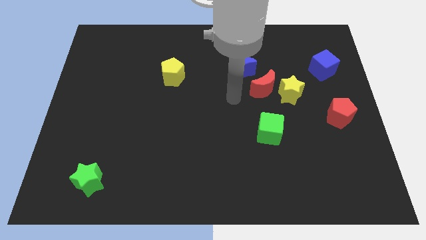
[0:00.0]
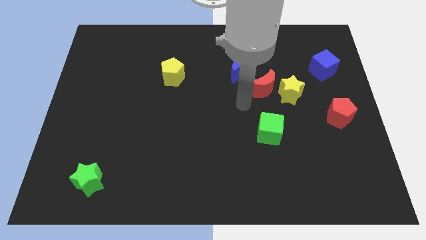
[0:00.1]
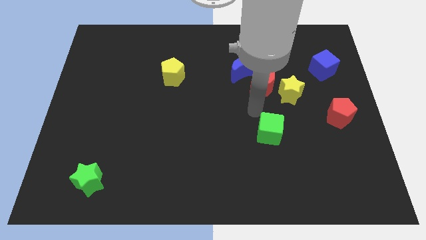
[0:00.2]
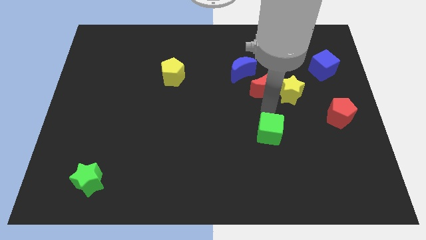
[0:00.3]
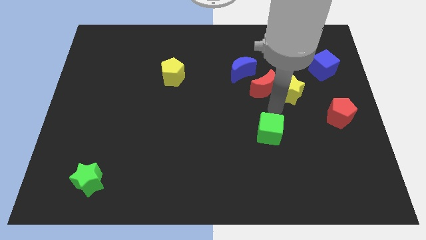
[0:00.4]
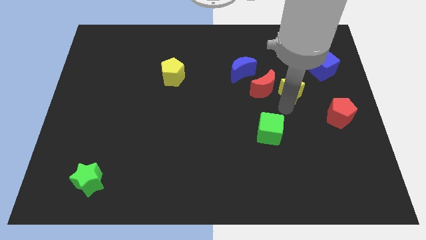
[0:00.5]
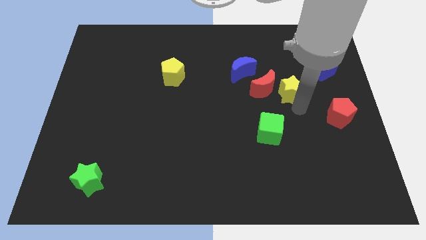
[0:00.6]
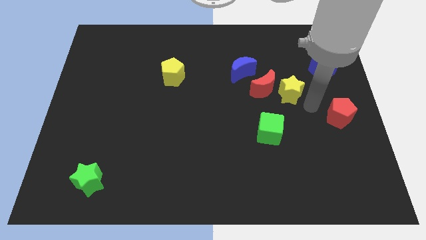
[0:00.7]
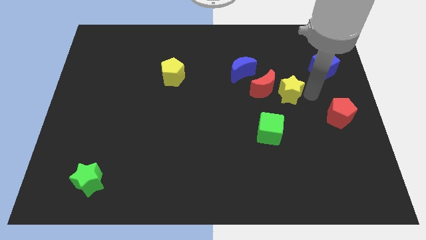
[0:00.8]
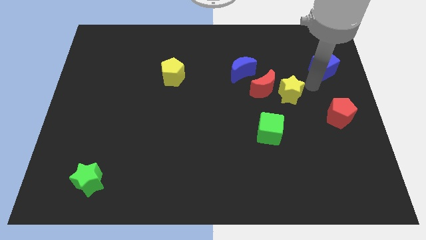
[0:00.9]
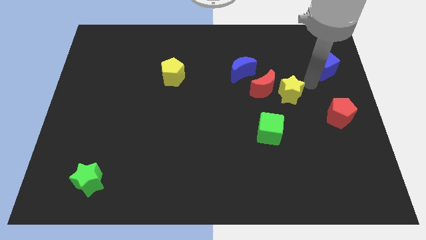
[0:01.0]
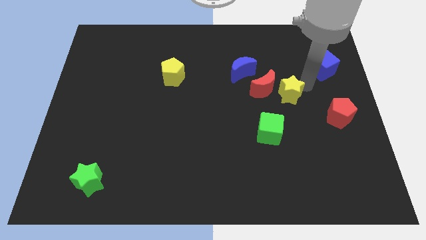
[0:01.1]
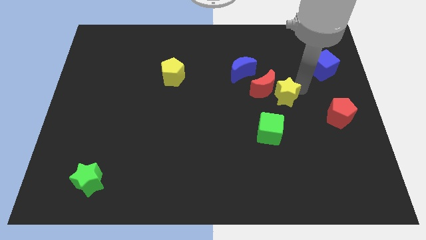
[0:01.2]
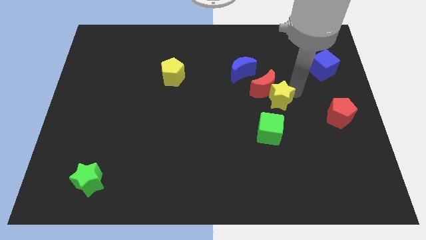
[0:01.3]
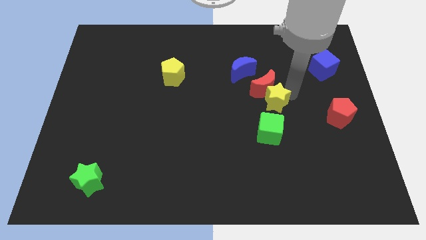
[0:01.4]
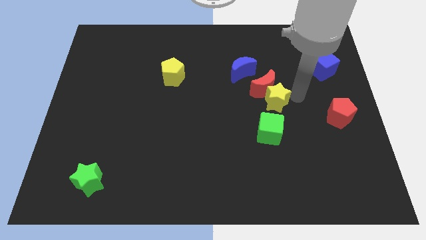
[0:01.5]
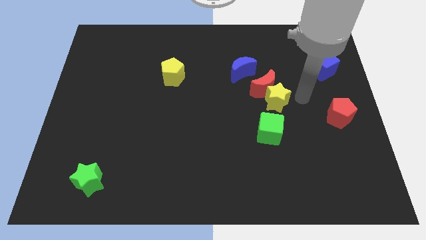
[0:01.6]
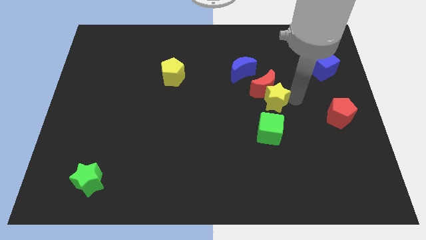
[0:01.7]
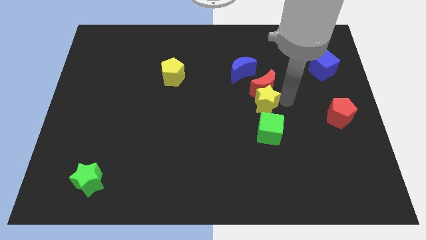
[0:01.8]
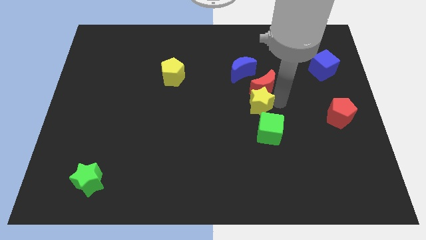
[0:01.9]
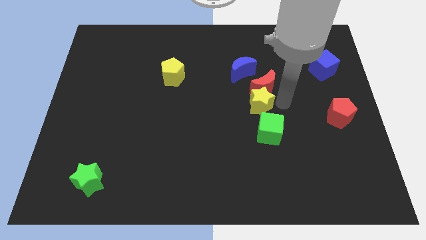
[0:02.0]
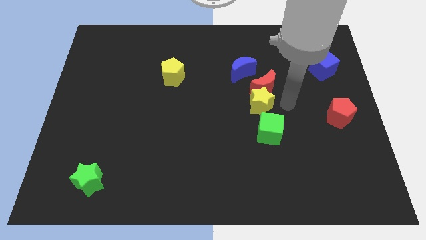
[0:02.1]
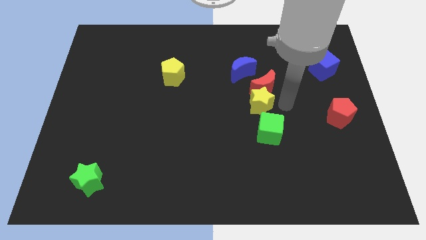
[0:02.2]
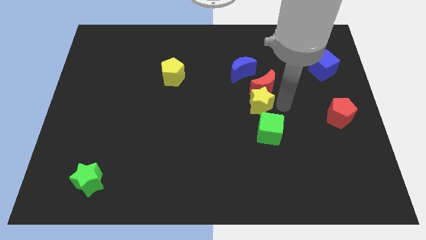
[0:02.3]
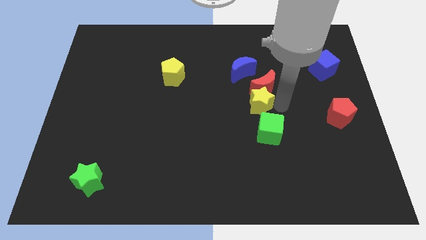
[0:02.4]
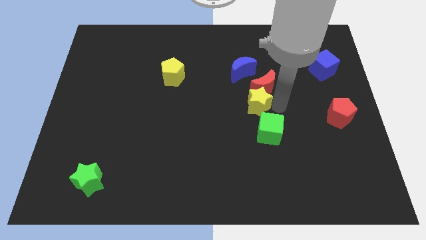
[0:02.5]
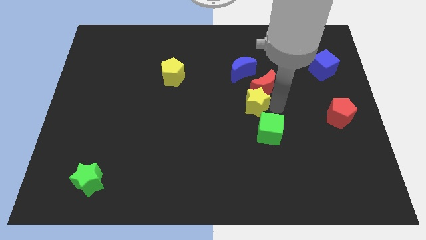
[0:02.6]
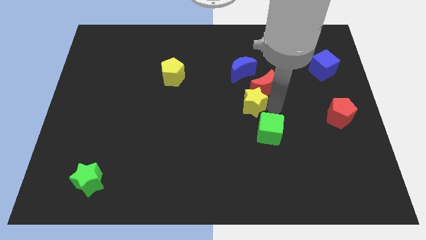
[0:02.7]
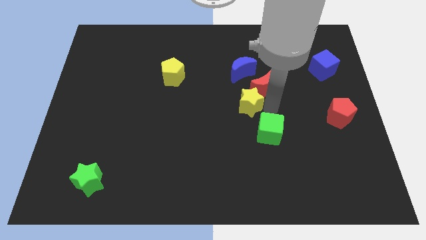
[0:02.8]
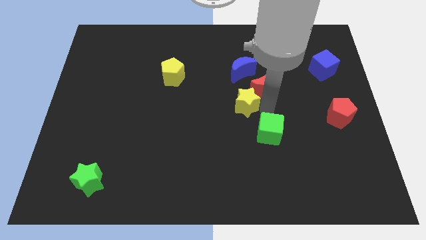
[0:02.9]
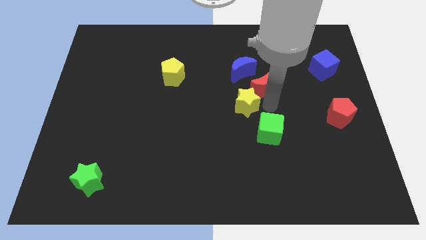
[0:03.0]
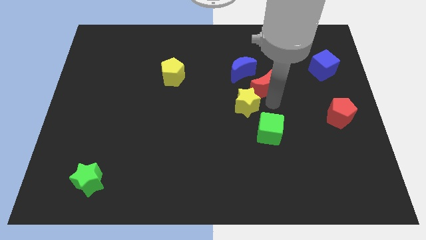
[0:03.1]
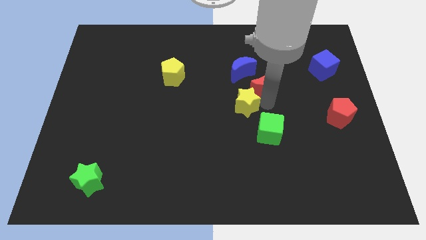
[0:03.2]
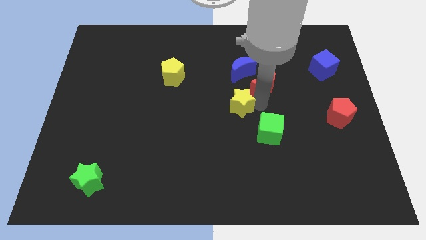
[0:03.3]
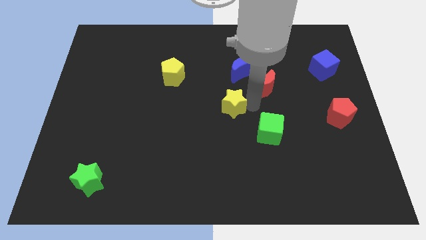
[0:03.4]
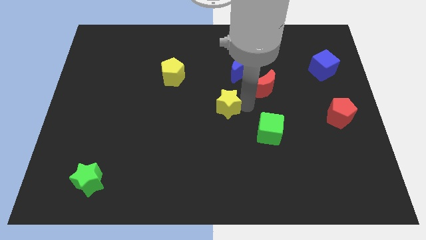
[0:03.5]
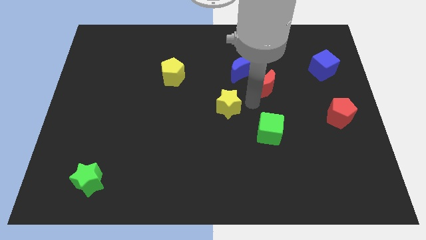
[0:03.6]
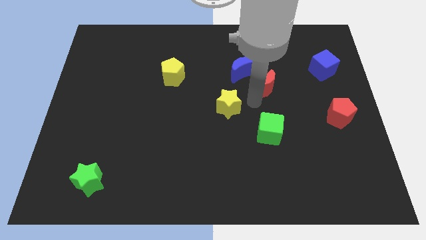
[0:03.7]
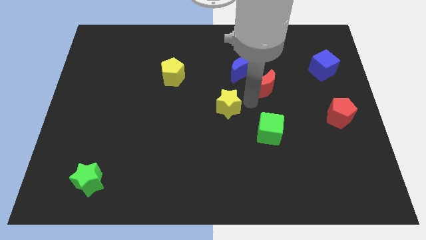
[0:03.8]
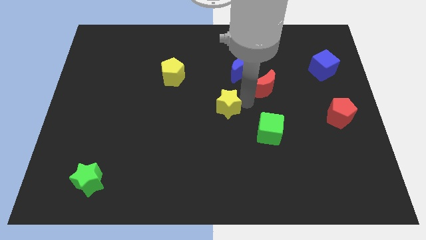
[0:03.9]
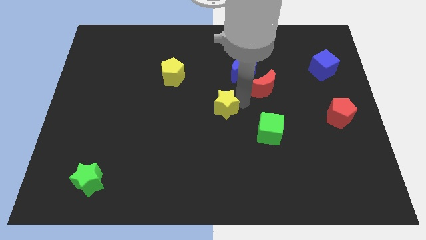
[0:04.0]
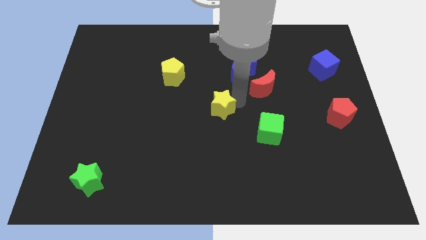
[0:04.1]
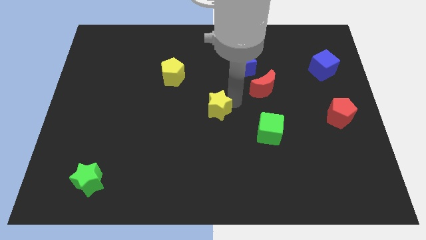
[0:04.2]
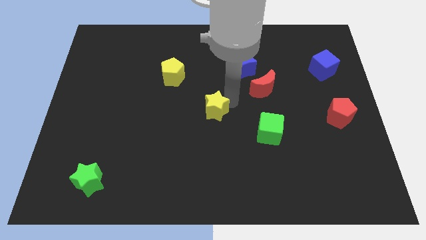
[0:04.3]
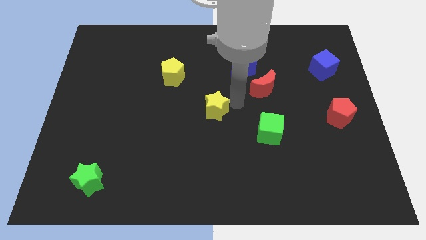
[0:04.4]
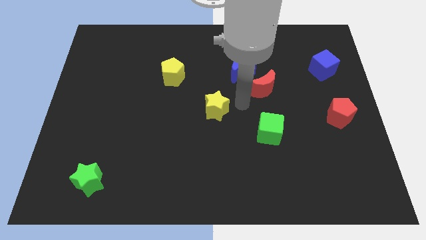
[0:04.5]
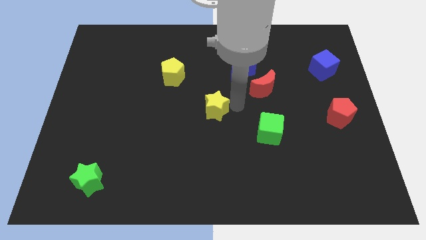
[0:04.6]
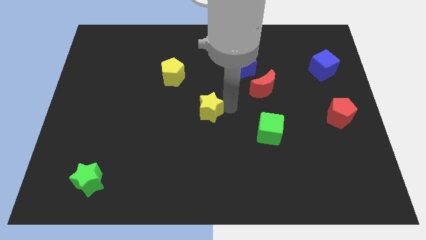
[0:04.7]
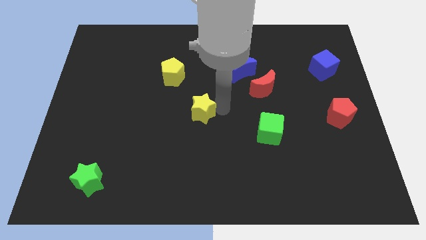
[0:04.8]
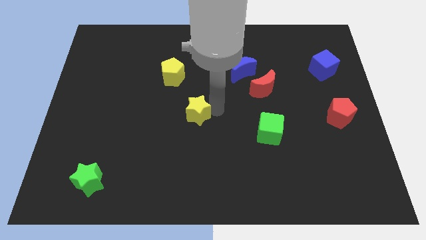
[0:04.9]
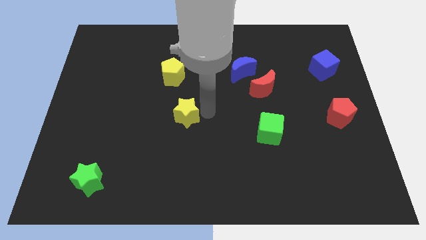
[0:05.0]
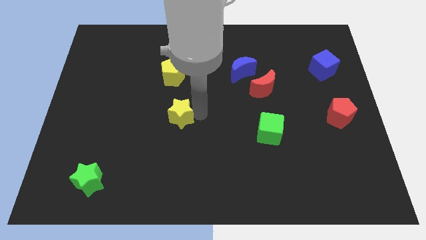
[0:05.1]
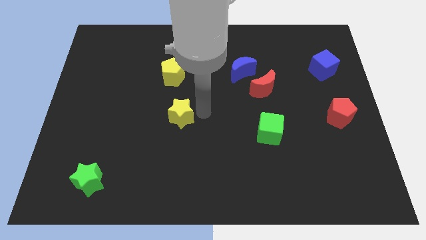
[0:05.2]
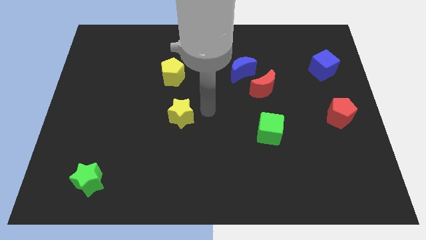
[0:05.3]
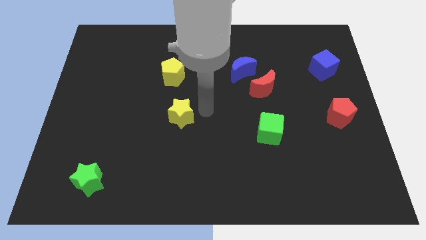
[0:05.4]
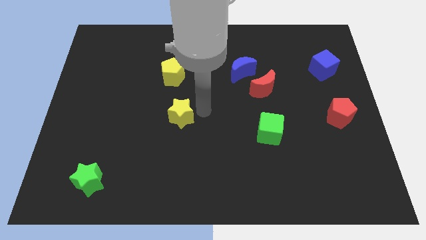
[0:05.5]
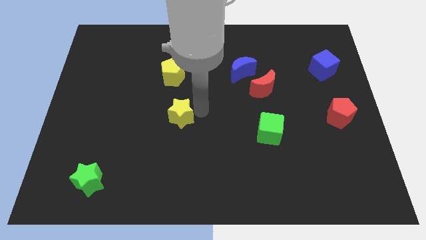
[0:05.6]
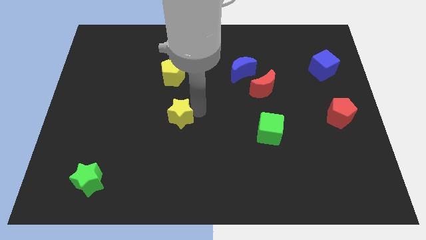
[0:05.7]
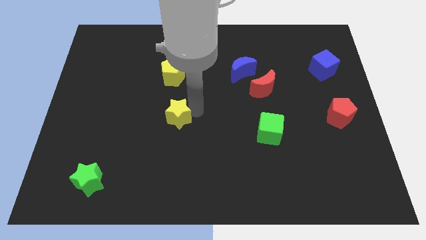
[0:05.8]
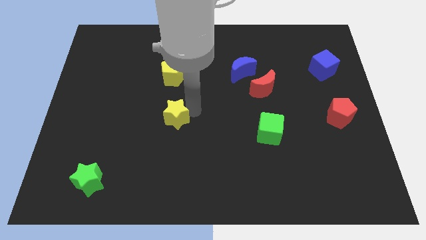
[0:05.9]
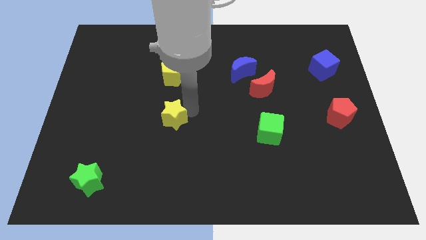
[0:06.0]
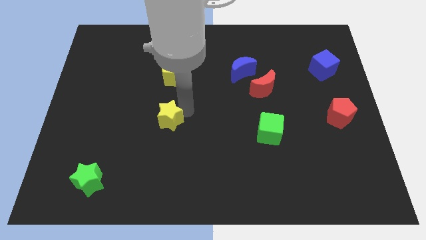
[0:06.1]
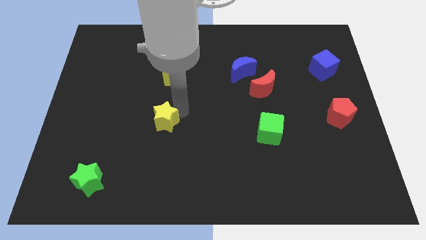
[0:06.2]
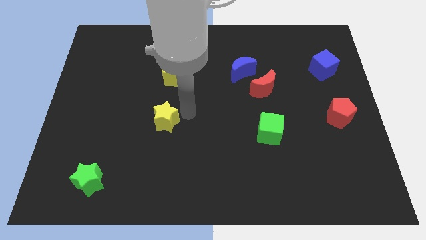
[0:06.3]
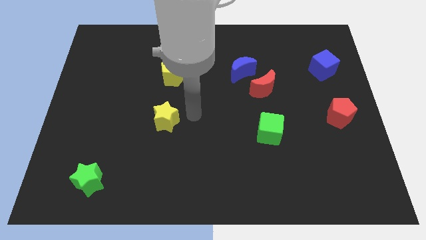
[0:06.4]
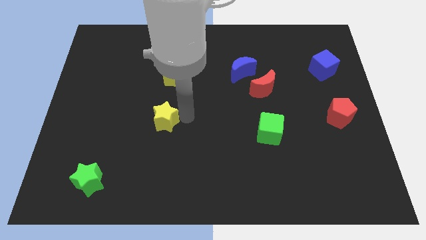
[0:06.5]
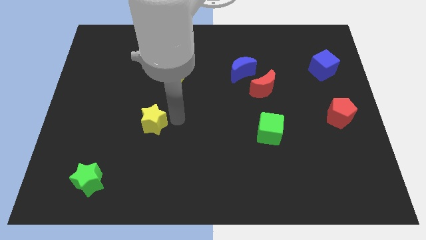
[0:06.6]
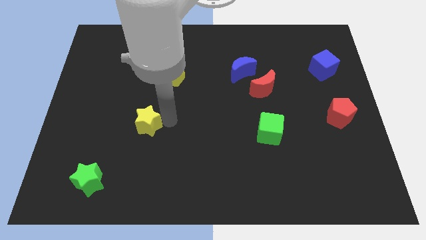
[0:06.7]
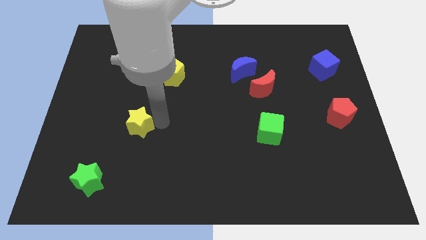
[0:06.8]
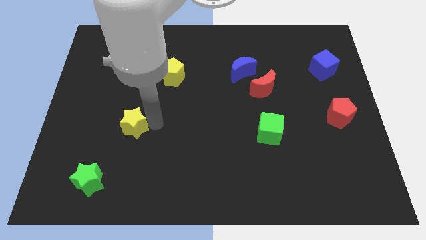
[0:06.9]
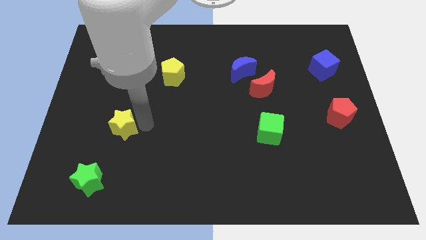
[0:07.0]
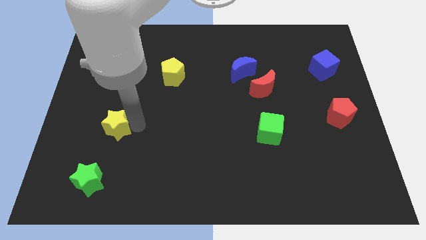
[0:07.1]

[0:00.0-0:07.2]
move the yellow star above the green star
